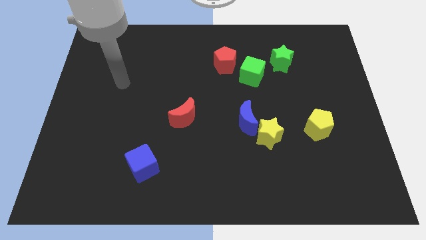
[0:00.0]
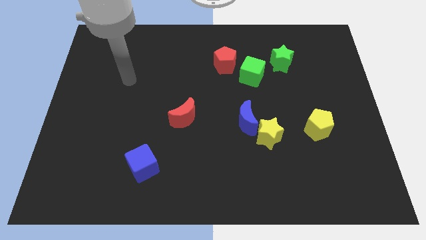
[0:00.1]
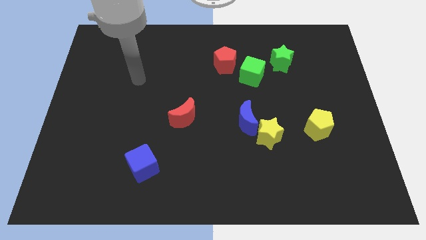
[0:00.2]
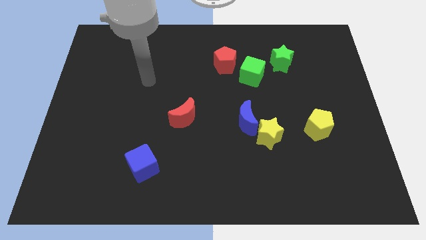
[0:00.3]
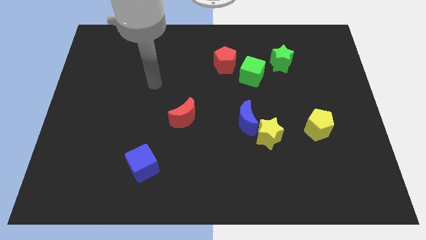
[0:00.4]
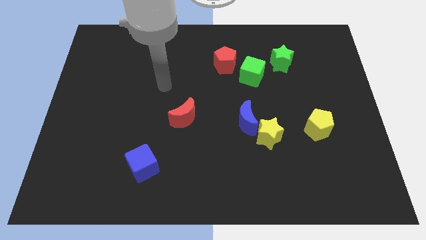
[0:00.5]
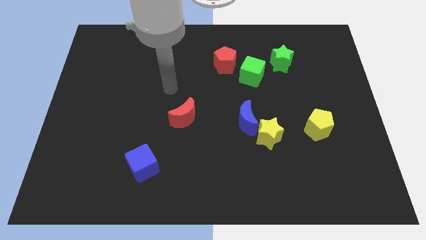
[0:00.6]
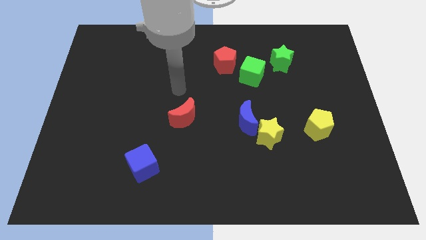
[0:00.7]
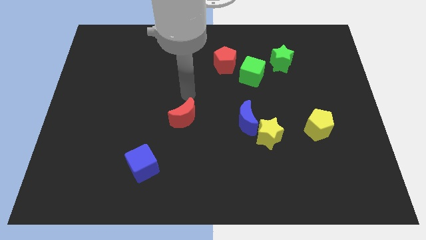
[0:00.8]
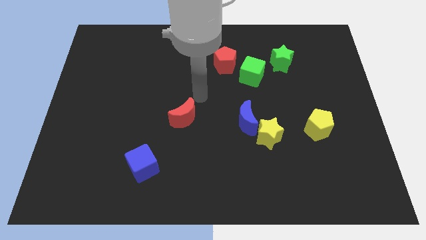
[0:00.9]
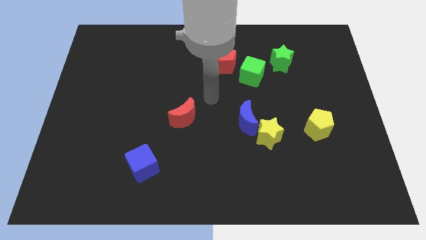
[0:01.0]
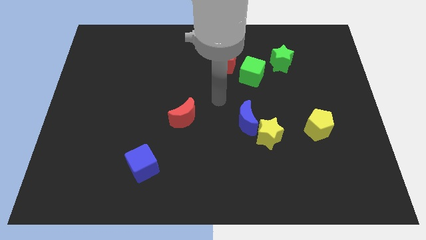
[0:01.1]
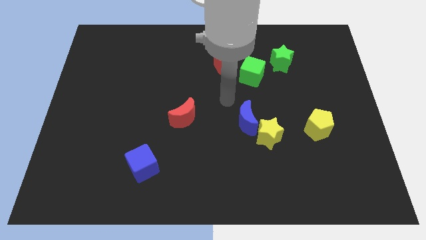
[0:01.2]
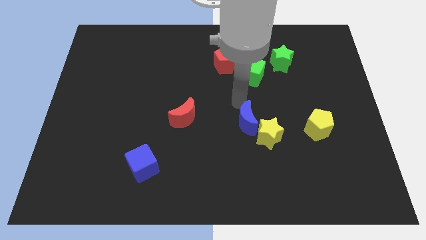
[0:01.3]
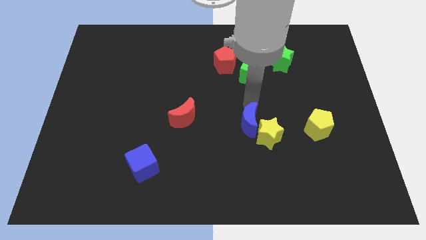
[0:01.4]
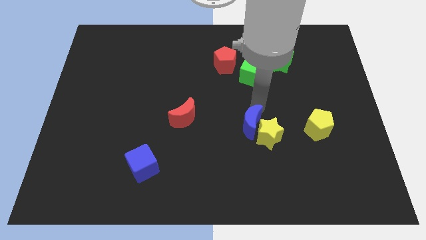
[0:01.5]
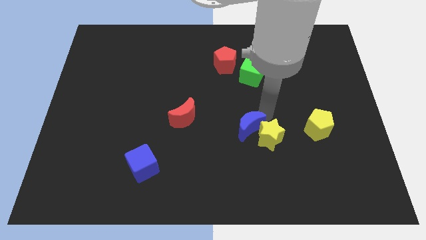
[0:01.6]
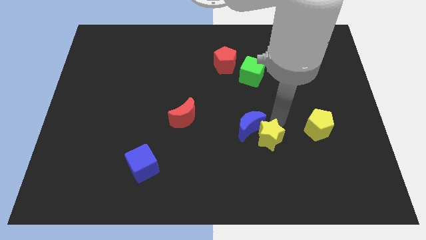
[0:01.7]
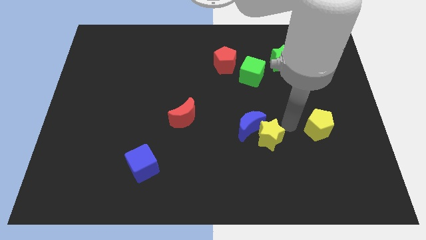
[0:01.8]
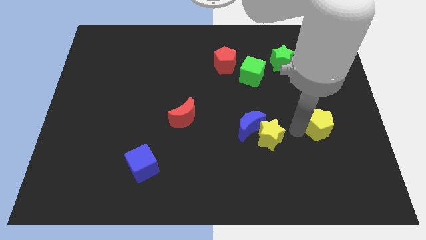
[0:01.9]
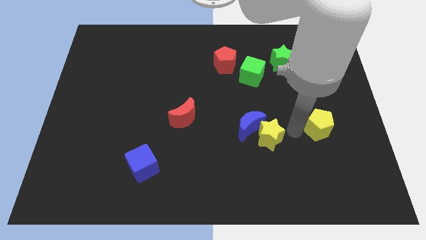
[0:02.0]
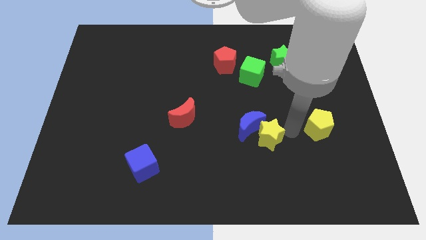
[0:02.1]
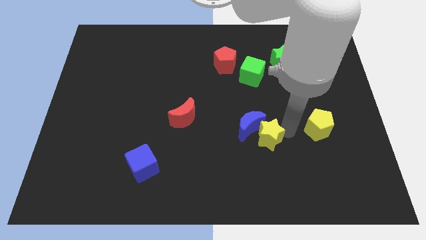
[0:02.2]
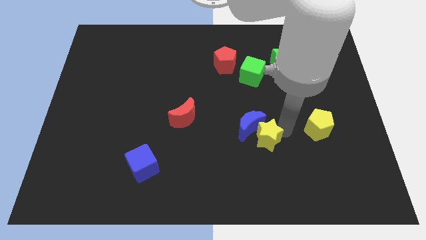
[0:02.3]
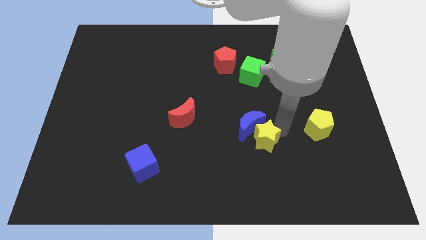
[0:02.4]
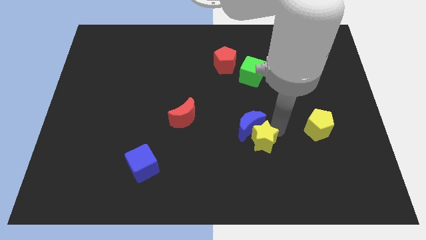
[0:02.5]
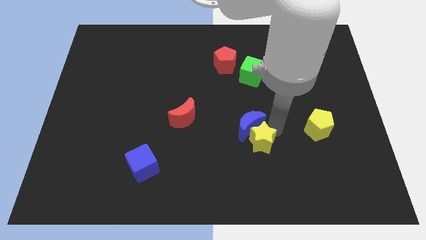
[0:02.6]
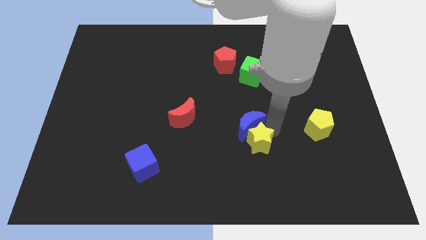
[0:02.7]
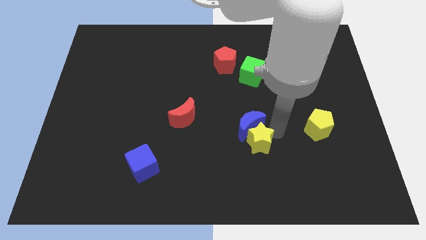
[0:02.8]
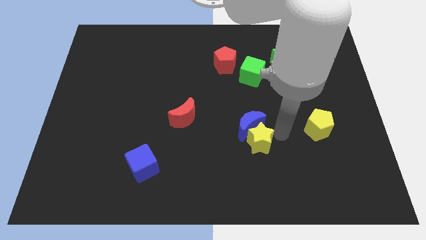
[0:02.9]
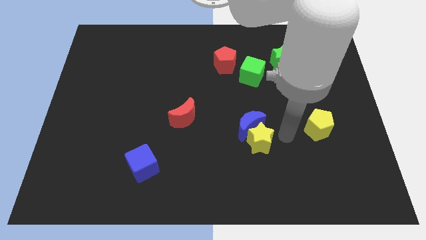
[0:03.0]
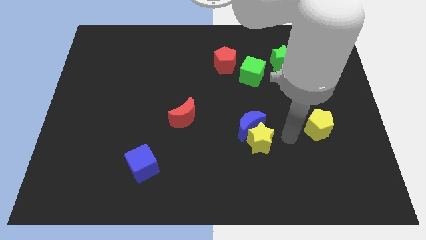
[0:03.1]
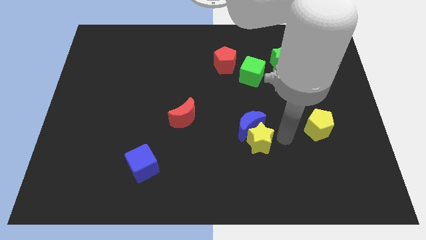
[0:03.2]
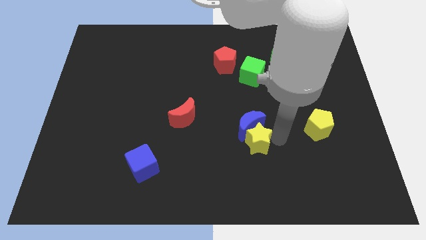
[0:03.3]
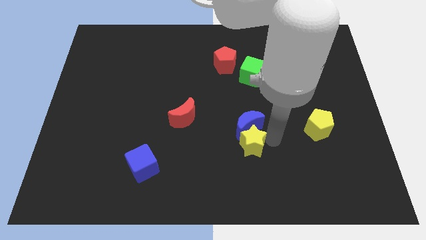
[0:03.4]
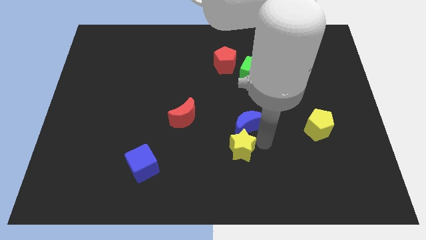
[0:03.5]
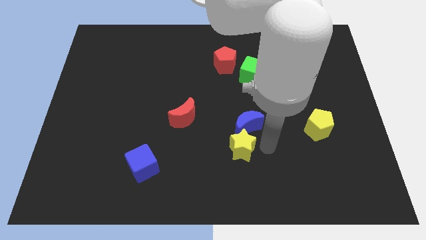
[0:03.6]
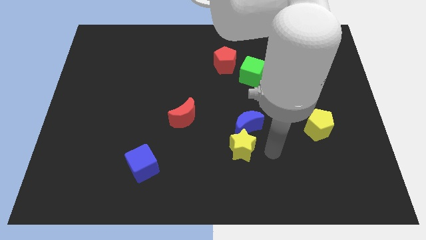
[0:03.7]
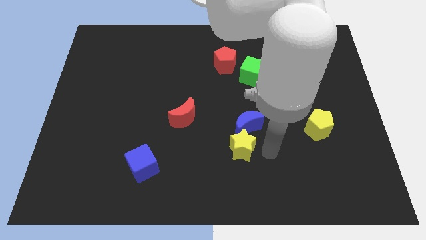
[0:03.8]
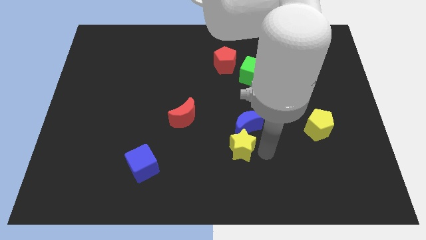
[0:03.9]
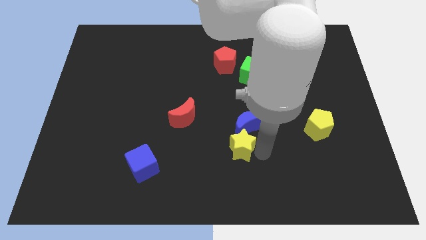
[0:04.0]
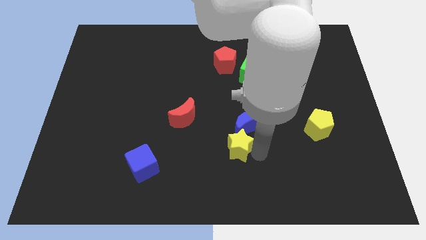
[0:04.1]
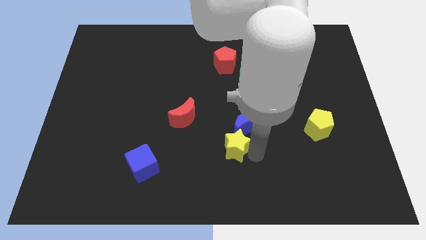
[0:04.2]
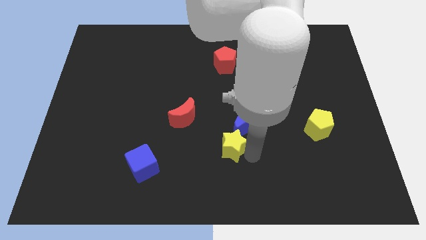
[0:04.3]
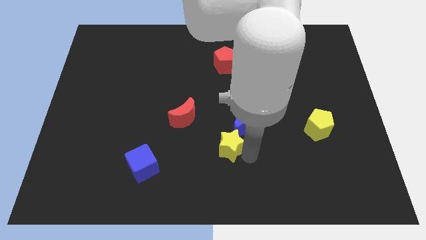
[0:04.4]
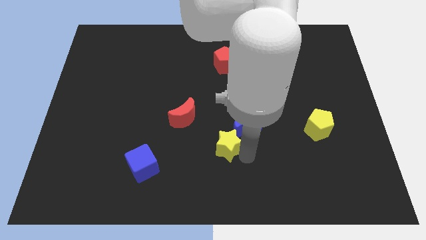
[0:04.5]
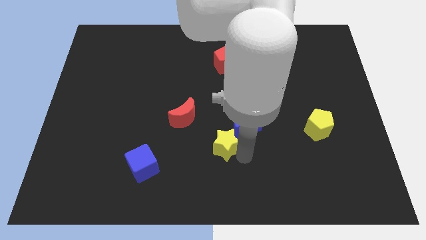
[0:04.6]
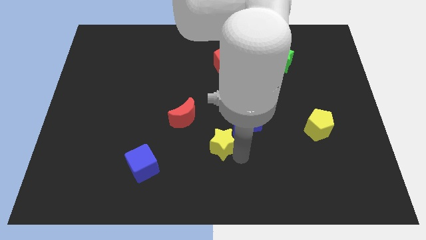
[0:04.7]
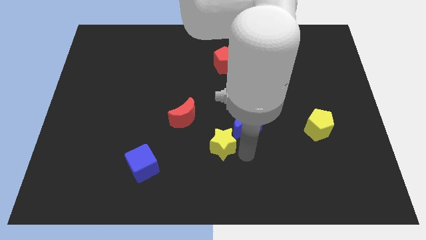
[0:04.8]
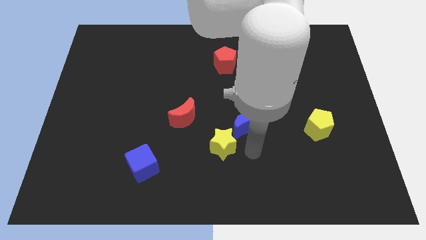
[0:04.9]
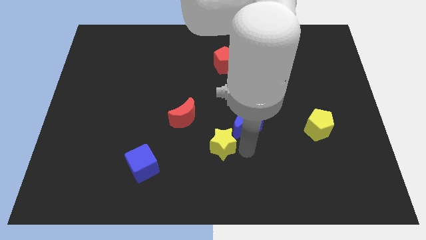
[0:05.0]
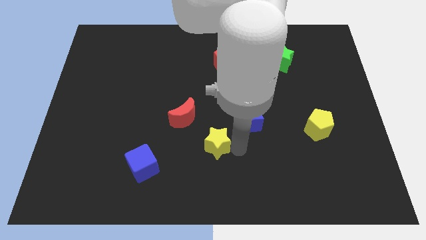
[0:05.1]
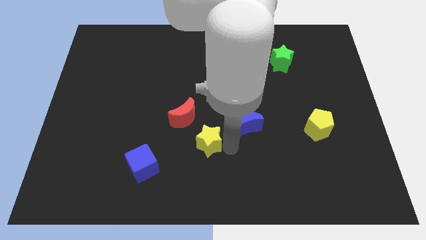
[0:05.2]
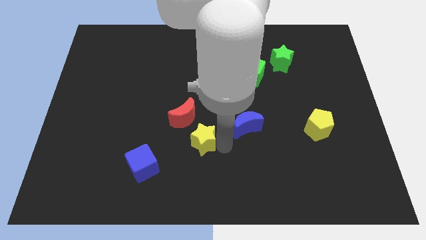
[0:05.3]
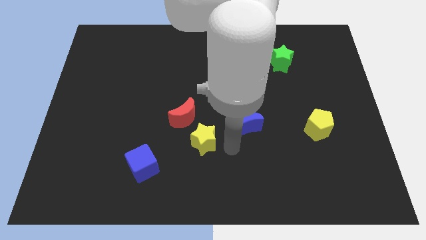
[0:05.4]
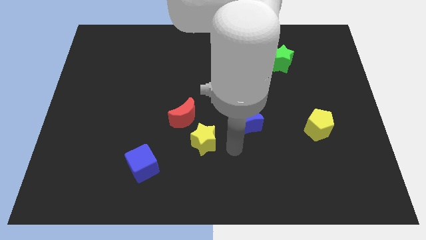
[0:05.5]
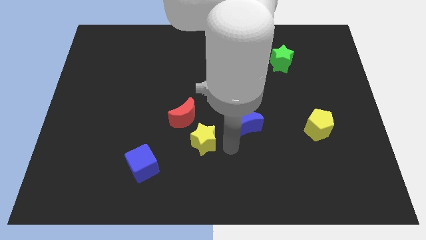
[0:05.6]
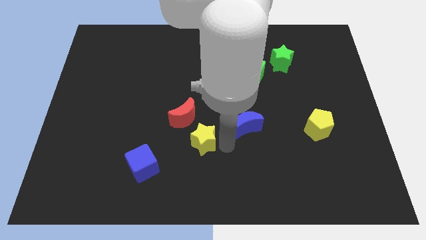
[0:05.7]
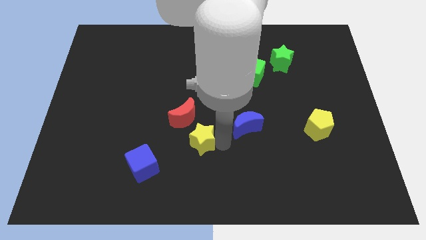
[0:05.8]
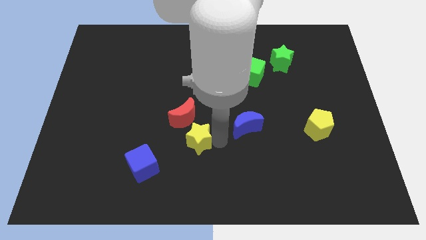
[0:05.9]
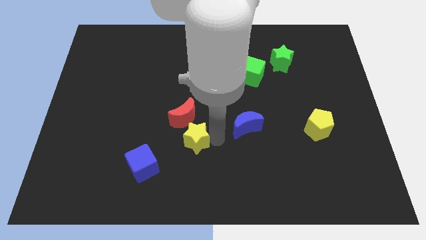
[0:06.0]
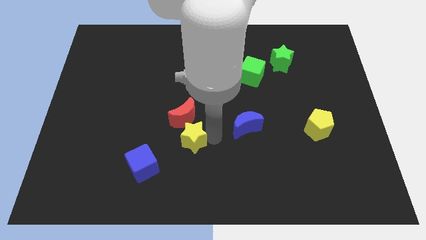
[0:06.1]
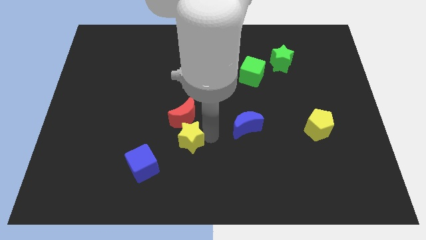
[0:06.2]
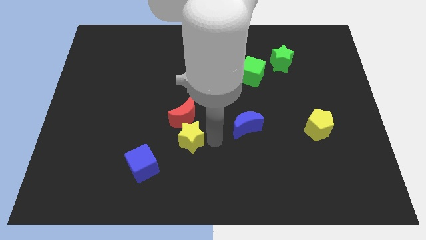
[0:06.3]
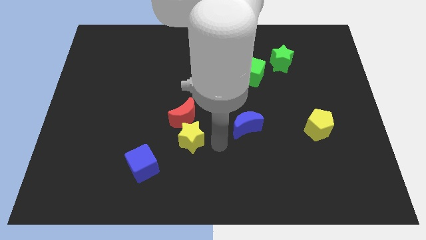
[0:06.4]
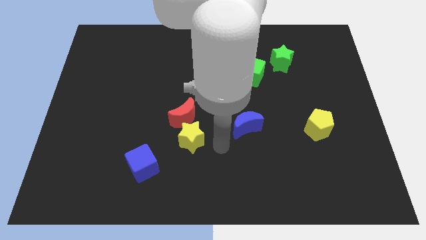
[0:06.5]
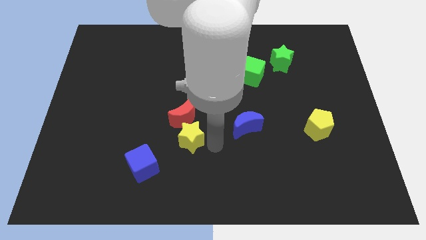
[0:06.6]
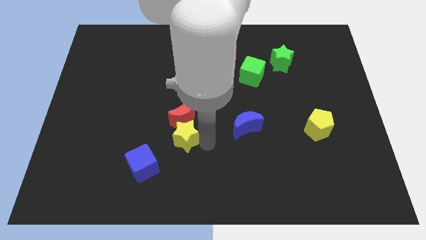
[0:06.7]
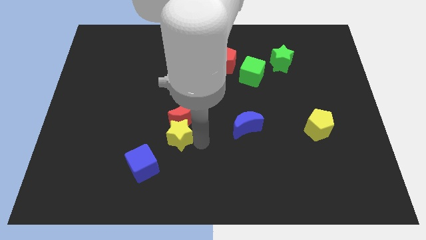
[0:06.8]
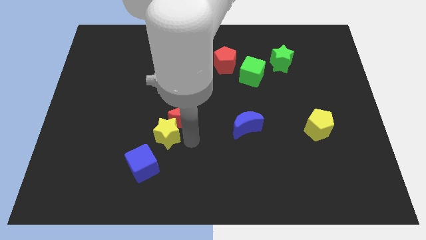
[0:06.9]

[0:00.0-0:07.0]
put the yellow star to the top of the blue cube

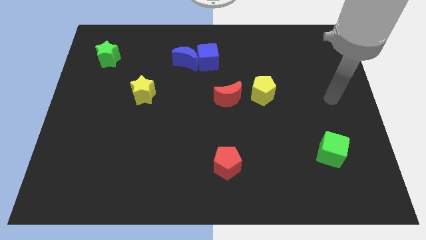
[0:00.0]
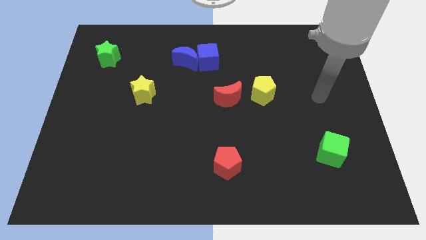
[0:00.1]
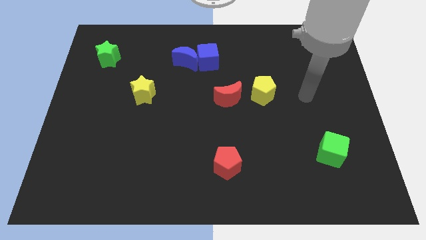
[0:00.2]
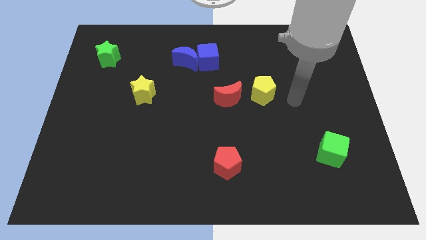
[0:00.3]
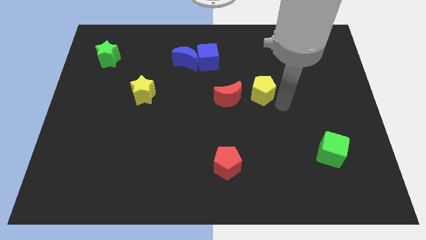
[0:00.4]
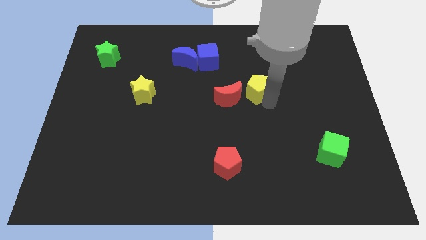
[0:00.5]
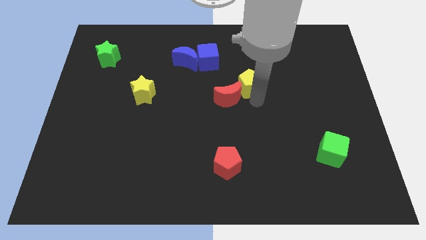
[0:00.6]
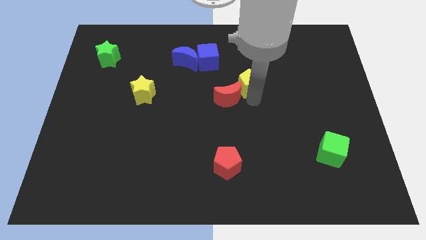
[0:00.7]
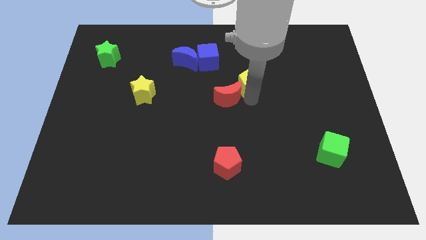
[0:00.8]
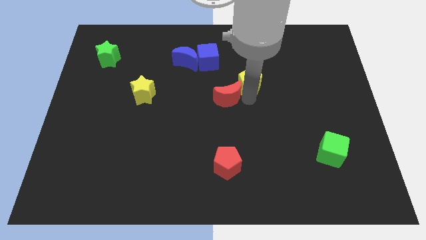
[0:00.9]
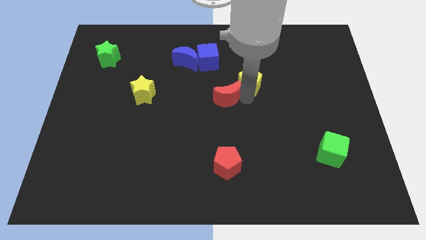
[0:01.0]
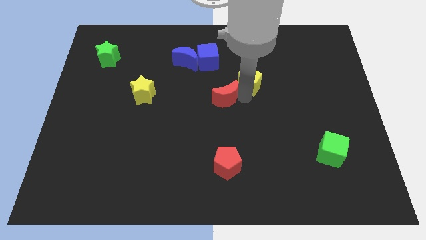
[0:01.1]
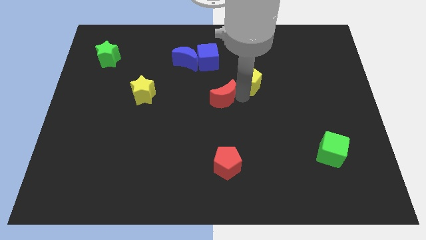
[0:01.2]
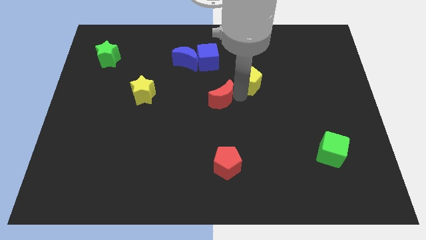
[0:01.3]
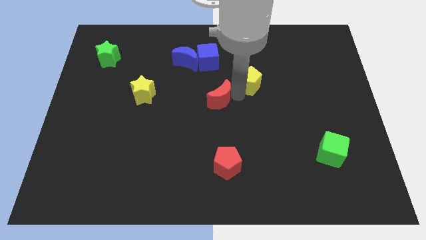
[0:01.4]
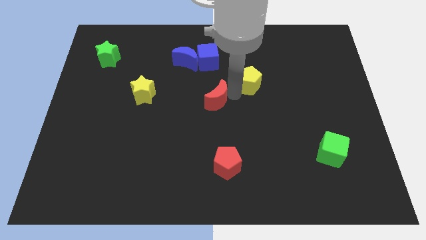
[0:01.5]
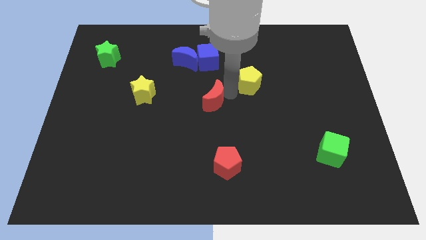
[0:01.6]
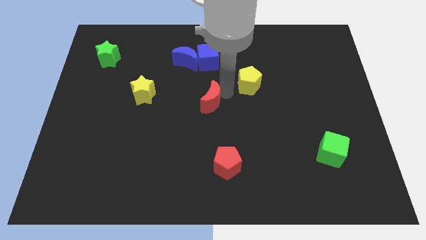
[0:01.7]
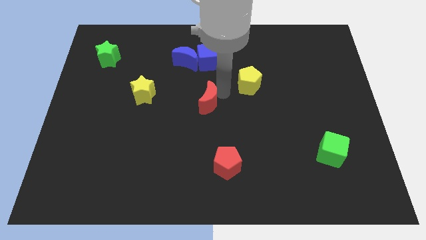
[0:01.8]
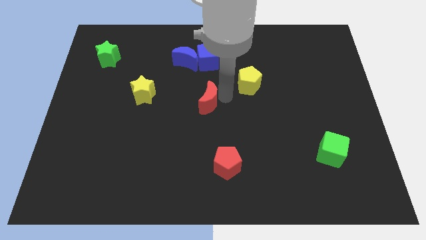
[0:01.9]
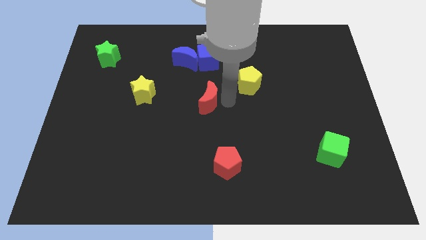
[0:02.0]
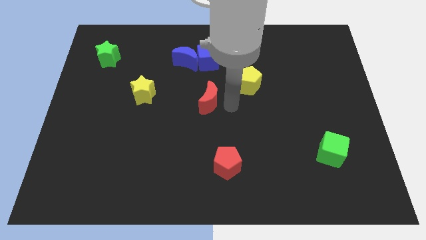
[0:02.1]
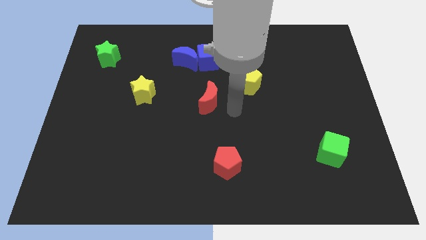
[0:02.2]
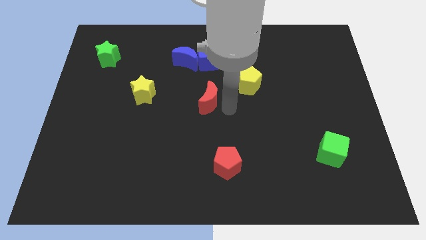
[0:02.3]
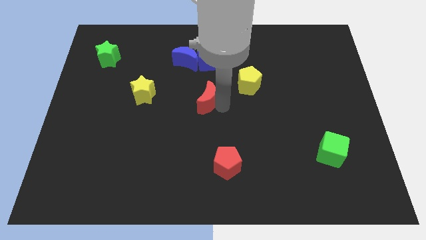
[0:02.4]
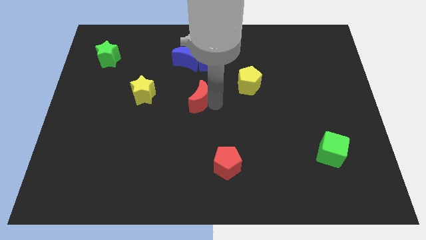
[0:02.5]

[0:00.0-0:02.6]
move the red moon below the blue moon
